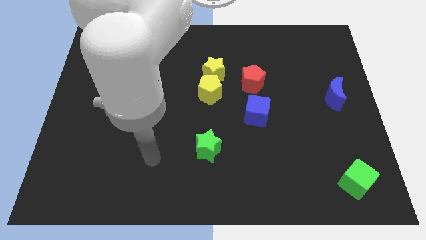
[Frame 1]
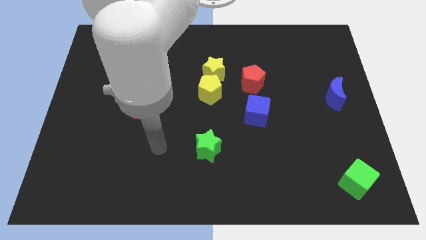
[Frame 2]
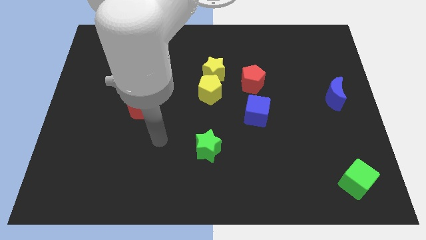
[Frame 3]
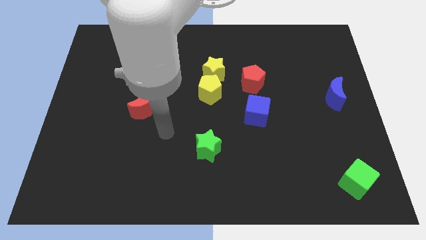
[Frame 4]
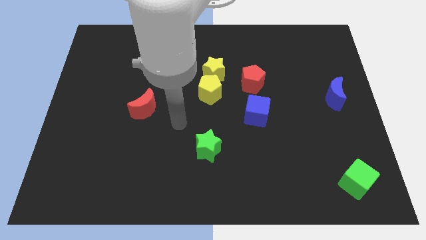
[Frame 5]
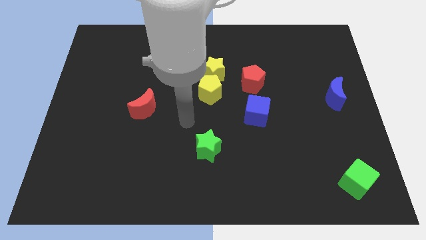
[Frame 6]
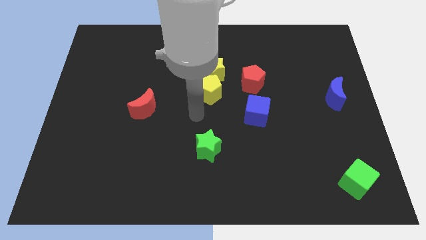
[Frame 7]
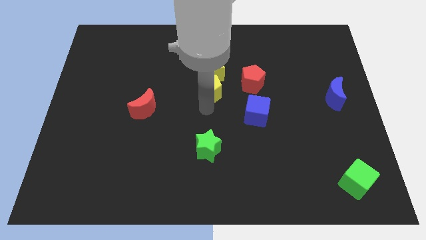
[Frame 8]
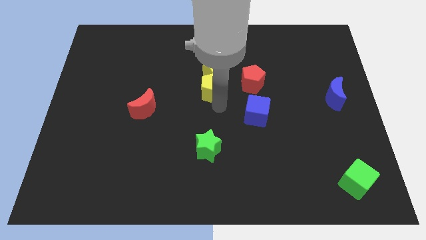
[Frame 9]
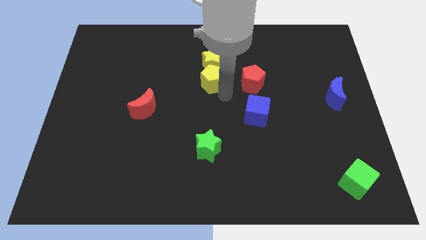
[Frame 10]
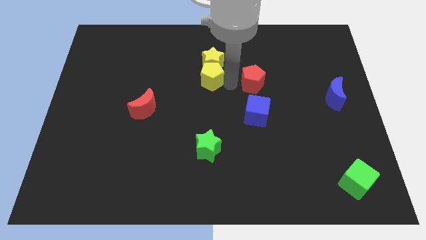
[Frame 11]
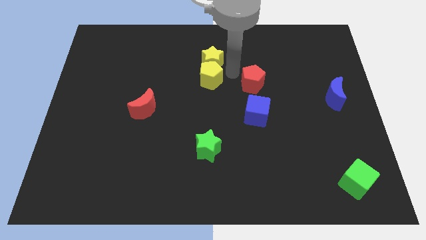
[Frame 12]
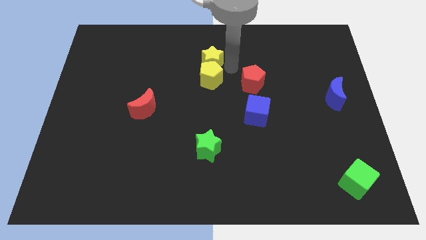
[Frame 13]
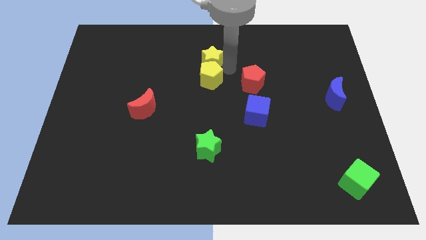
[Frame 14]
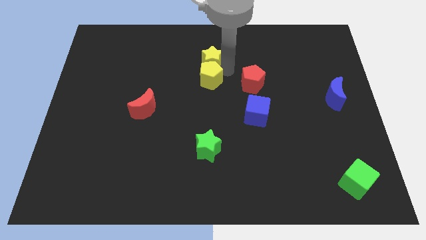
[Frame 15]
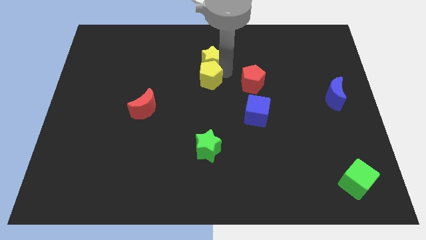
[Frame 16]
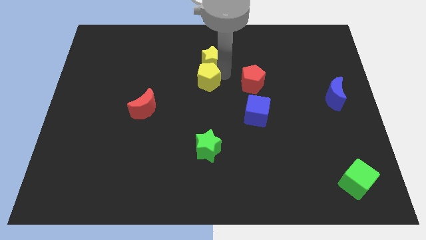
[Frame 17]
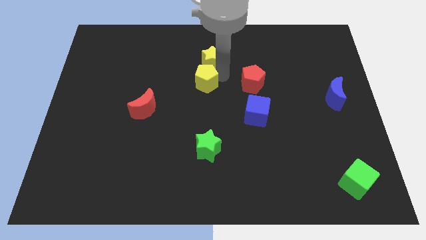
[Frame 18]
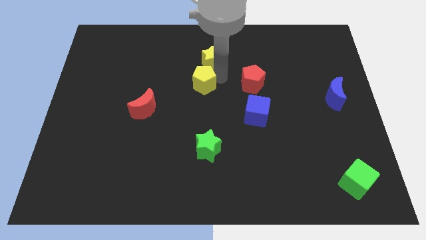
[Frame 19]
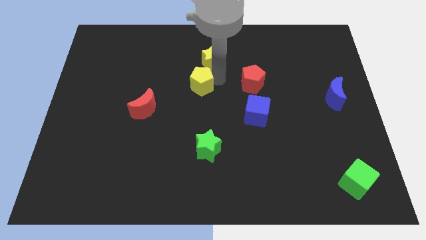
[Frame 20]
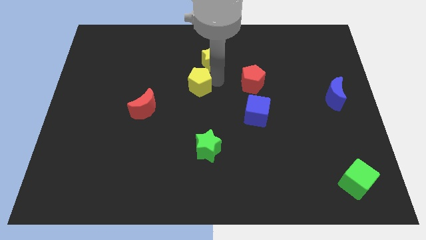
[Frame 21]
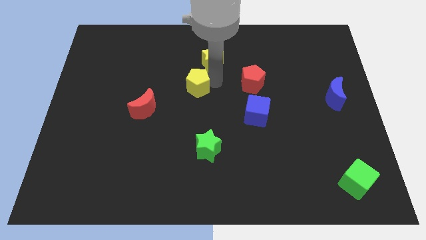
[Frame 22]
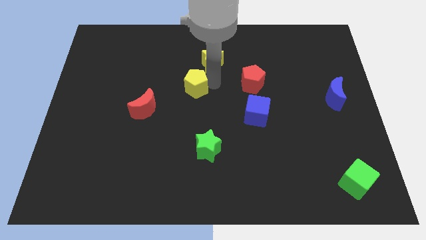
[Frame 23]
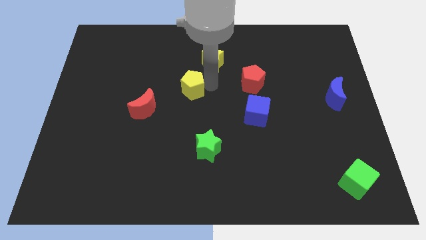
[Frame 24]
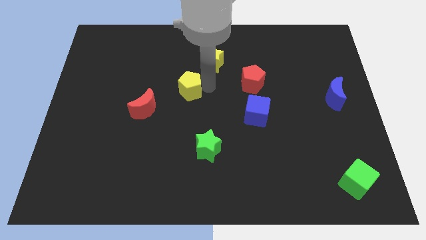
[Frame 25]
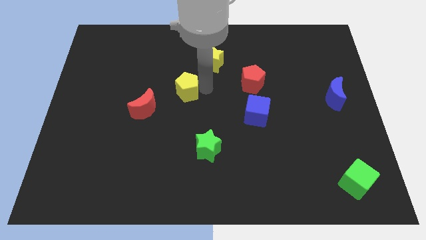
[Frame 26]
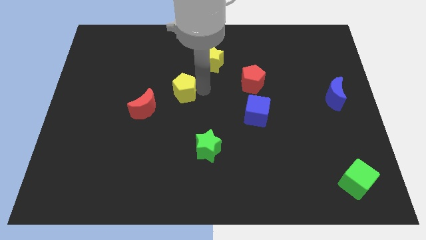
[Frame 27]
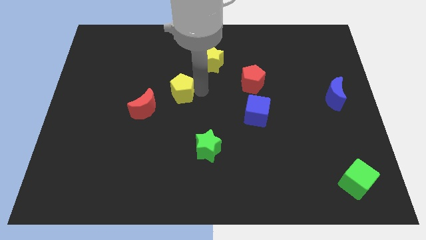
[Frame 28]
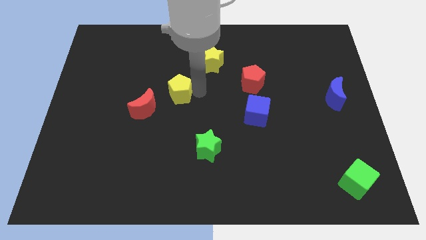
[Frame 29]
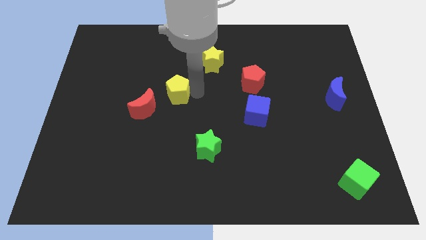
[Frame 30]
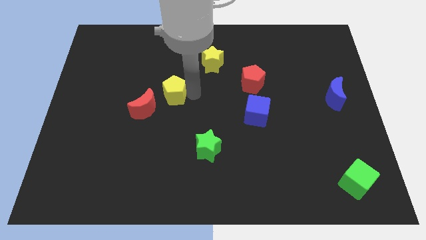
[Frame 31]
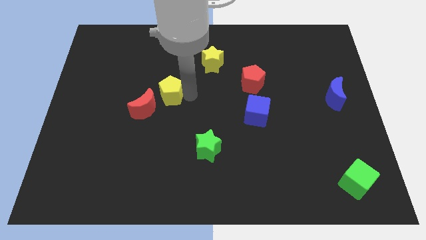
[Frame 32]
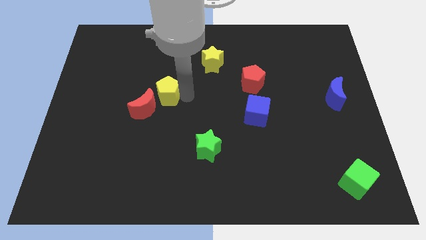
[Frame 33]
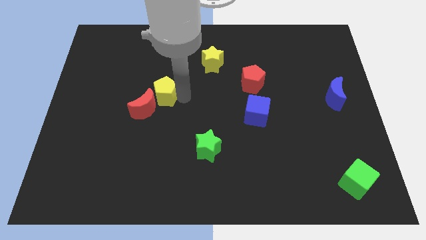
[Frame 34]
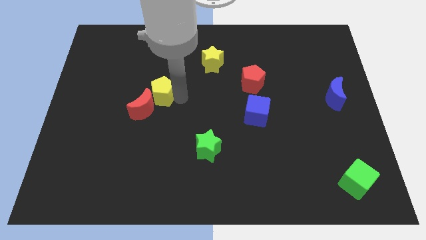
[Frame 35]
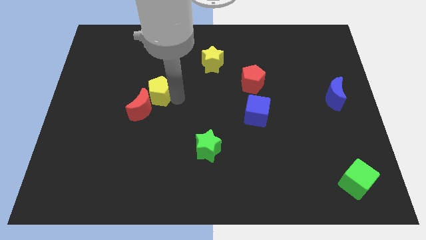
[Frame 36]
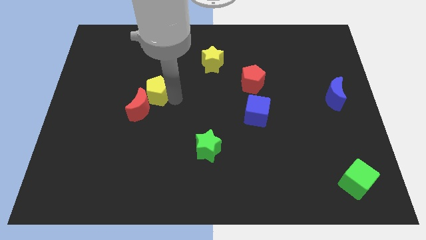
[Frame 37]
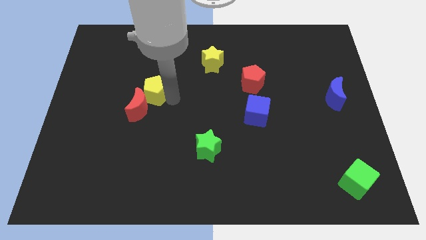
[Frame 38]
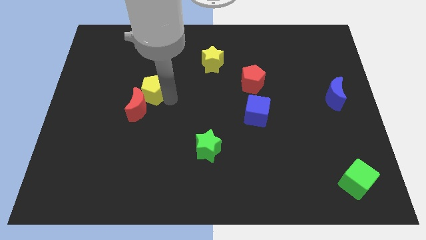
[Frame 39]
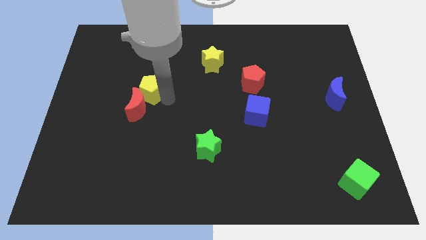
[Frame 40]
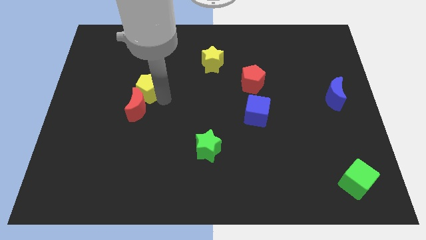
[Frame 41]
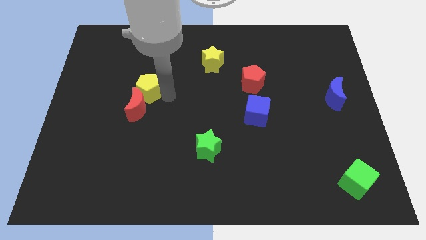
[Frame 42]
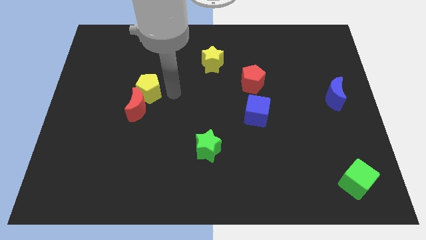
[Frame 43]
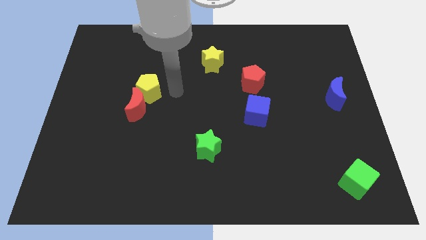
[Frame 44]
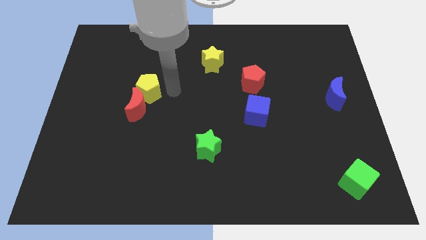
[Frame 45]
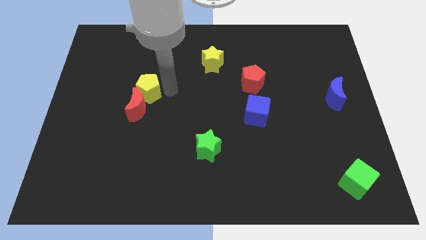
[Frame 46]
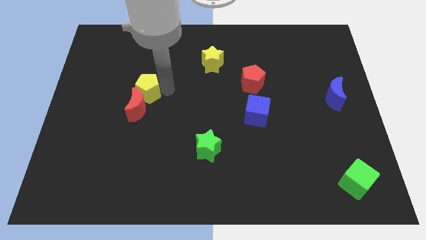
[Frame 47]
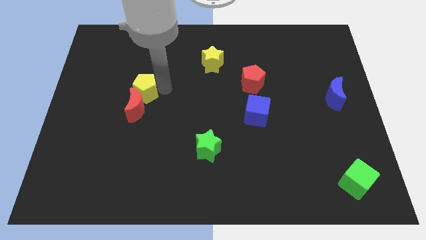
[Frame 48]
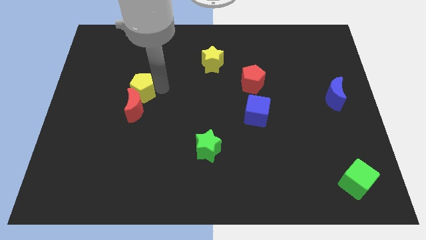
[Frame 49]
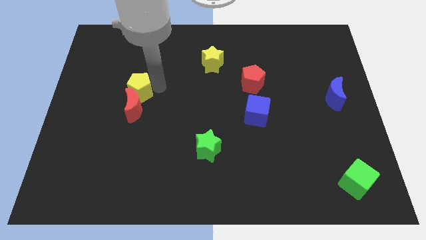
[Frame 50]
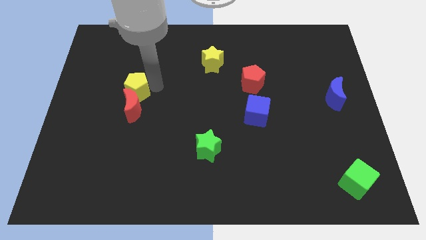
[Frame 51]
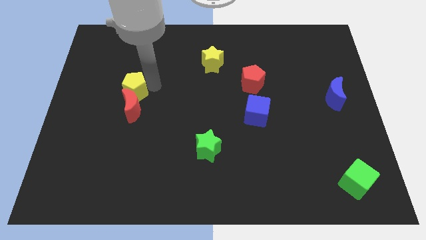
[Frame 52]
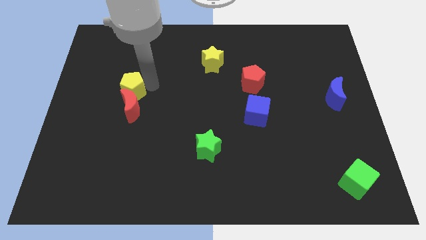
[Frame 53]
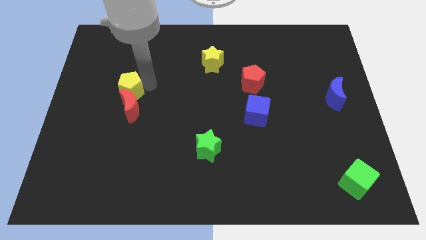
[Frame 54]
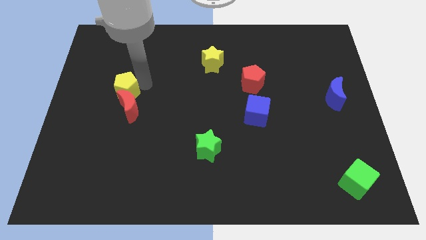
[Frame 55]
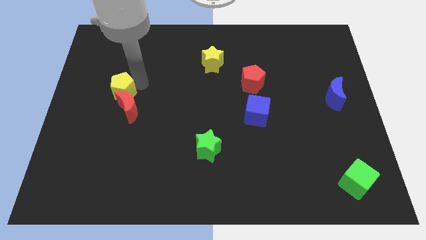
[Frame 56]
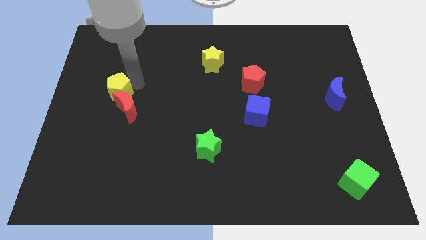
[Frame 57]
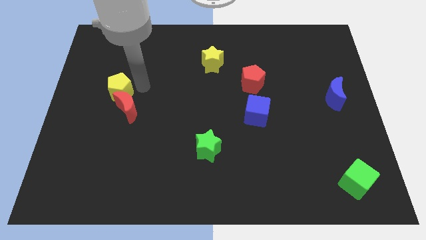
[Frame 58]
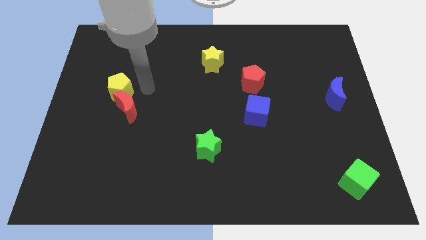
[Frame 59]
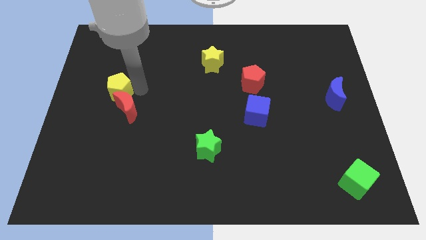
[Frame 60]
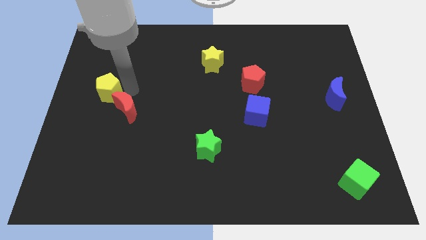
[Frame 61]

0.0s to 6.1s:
push the yellow pentagon to the left side

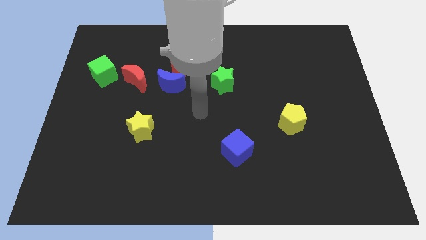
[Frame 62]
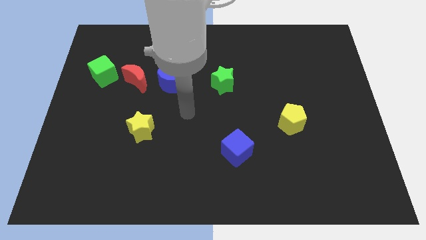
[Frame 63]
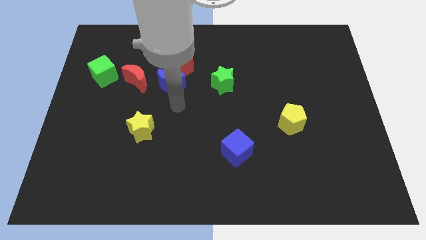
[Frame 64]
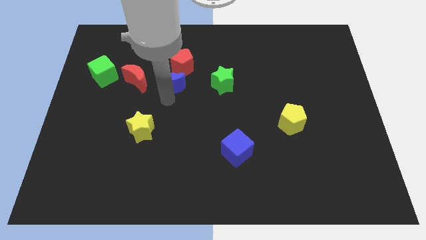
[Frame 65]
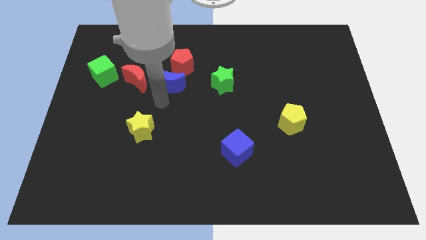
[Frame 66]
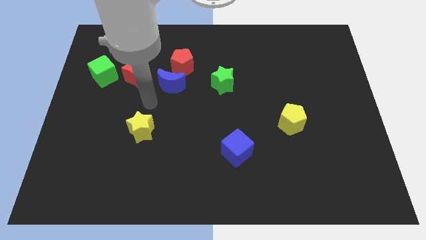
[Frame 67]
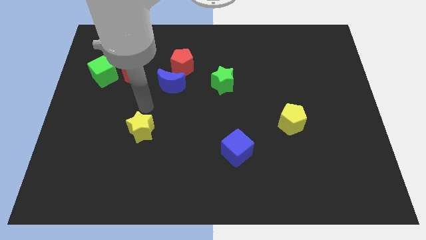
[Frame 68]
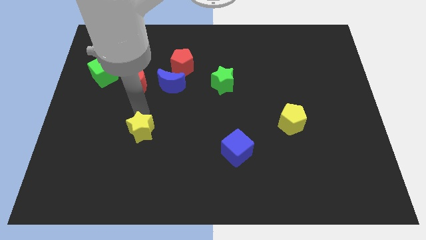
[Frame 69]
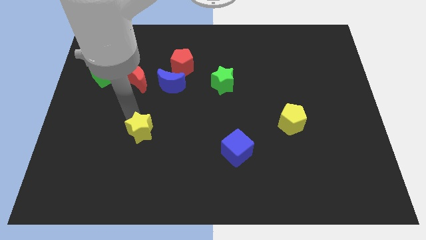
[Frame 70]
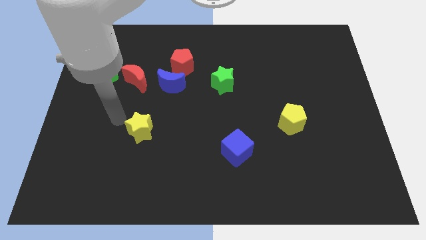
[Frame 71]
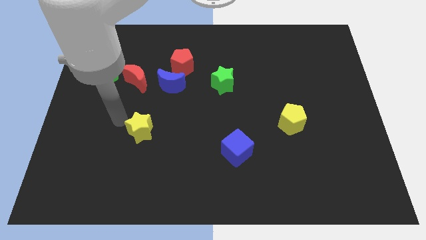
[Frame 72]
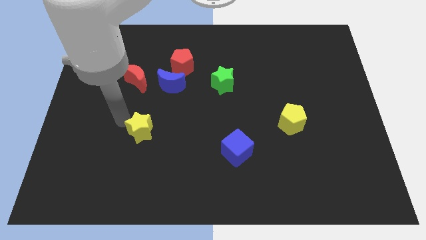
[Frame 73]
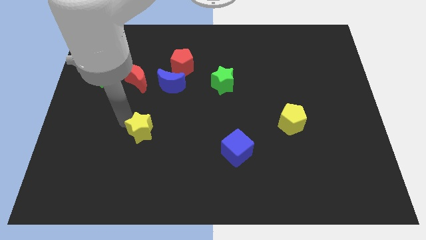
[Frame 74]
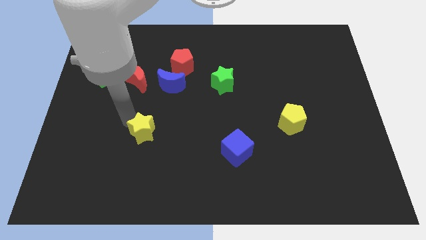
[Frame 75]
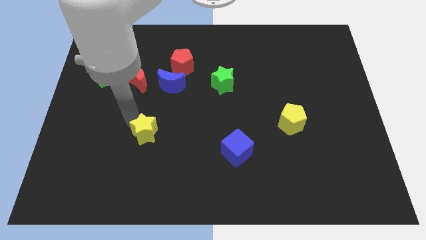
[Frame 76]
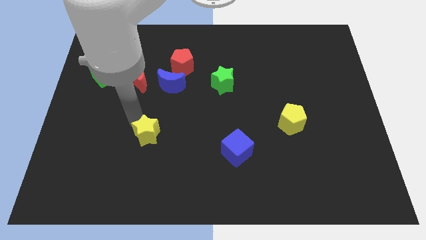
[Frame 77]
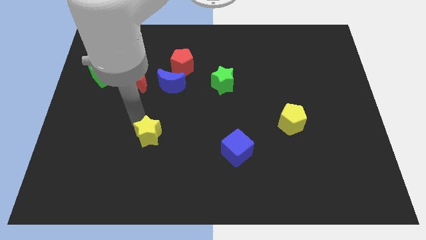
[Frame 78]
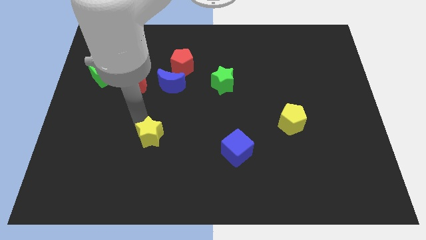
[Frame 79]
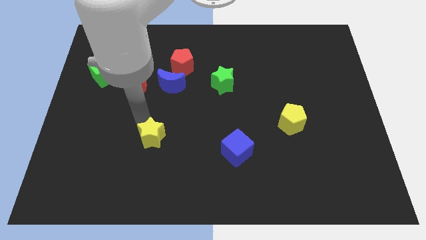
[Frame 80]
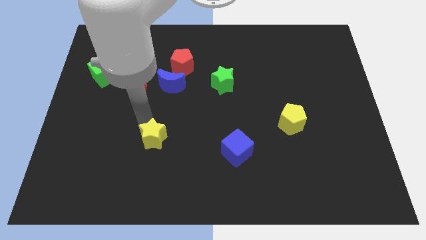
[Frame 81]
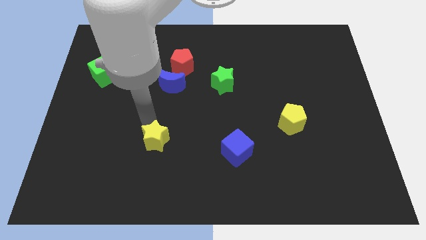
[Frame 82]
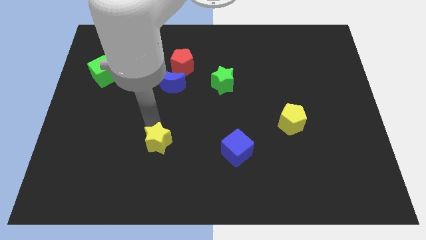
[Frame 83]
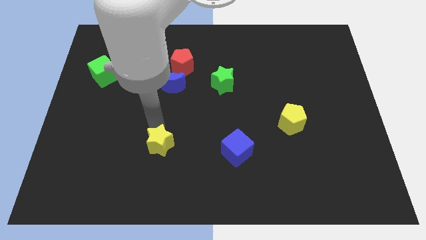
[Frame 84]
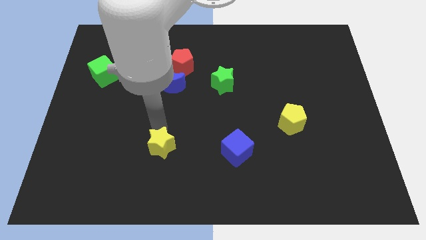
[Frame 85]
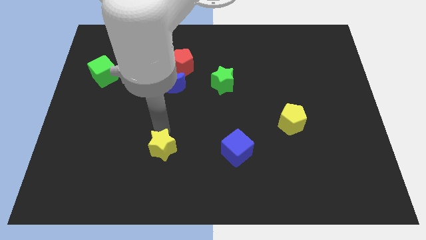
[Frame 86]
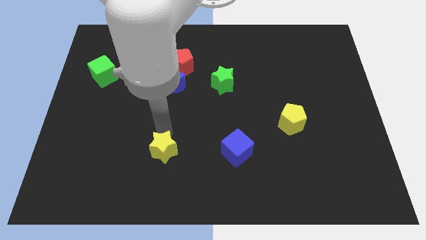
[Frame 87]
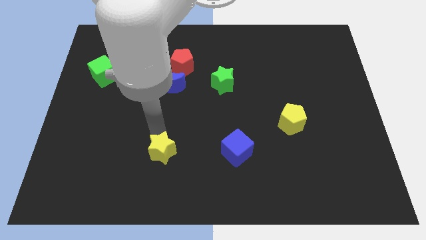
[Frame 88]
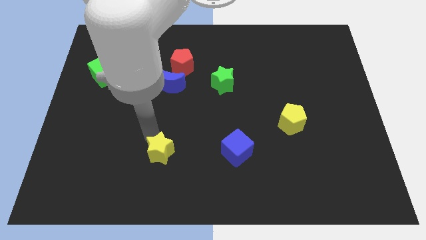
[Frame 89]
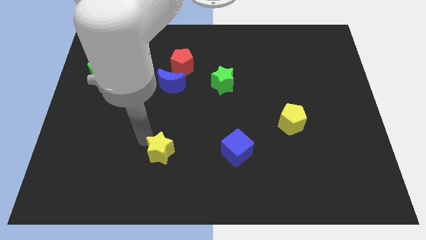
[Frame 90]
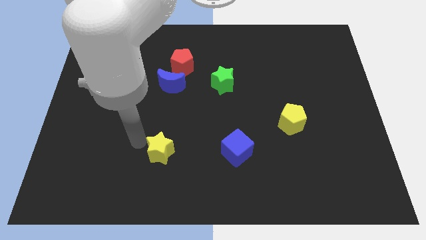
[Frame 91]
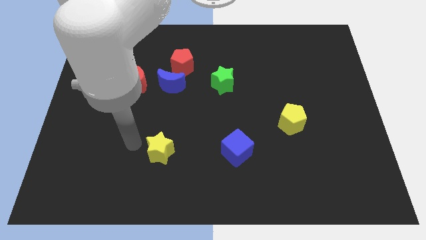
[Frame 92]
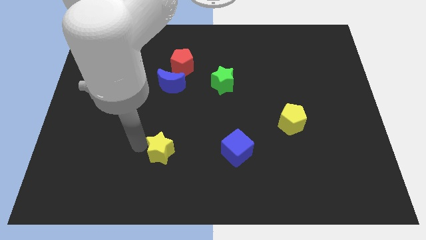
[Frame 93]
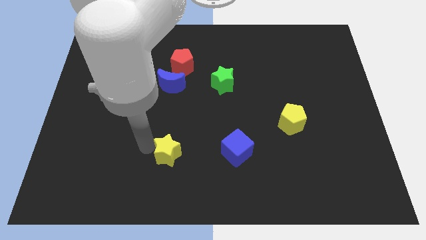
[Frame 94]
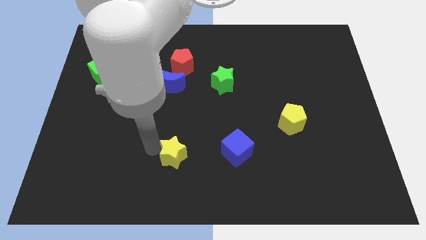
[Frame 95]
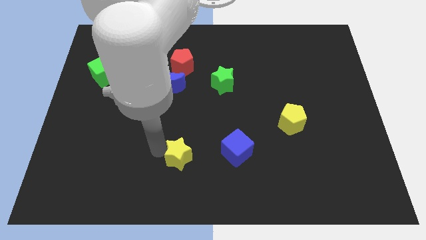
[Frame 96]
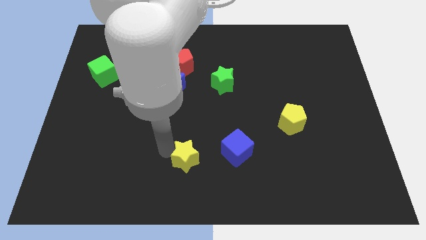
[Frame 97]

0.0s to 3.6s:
move the yellow star to the bottom
